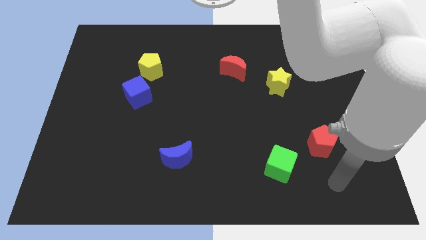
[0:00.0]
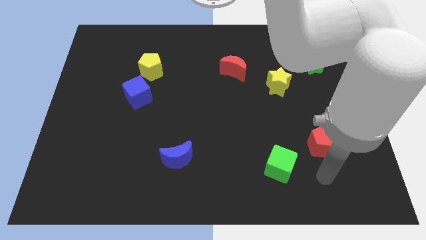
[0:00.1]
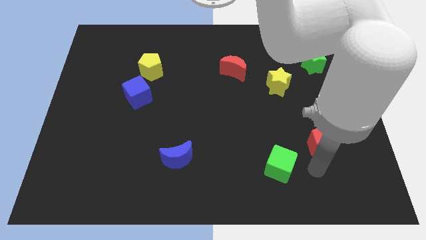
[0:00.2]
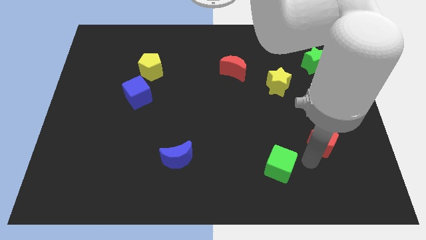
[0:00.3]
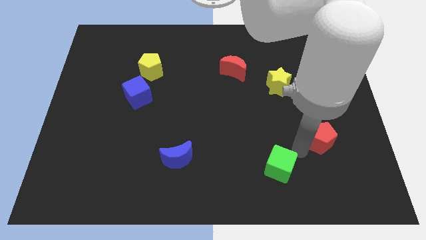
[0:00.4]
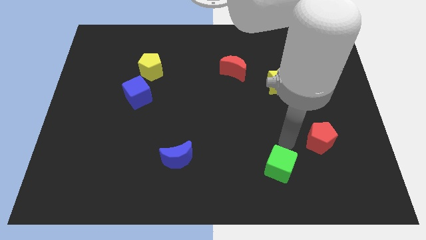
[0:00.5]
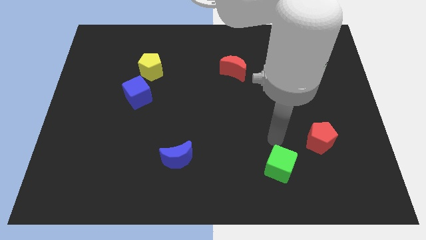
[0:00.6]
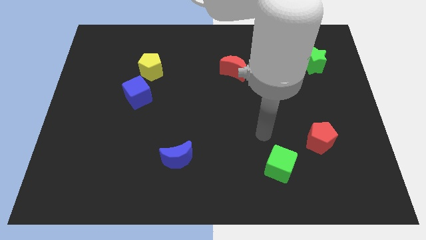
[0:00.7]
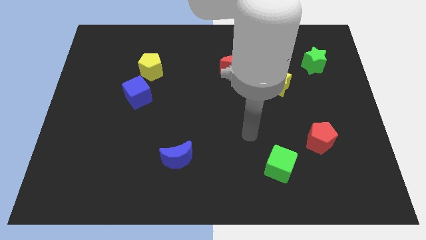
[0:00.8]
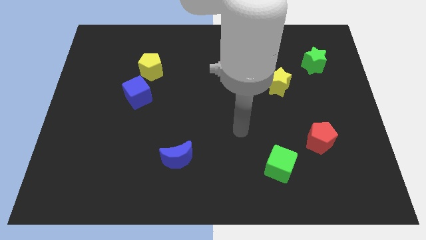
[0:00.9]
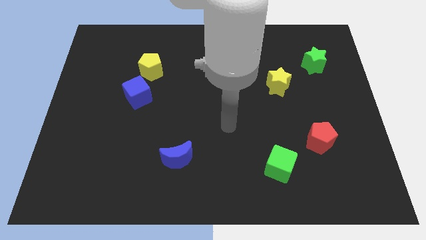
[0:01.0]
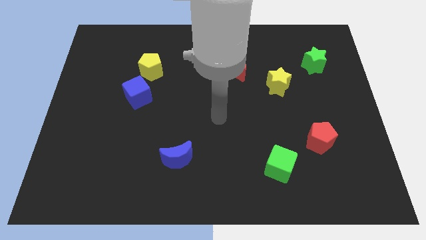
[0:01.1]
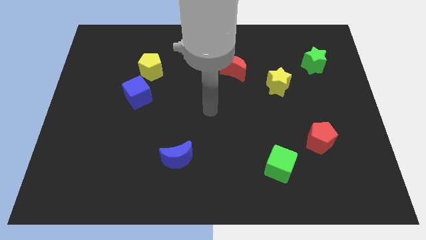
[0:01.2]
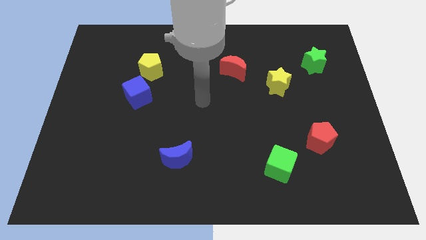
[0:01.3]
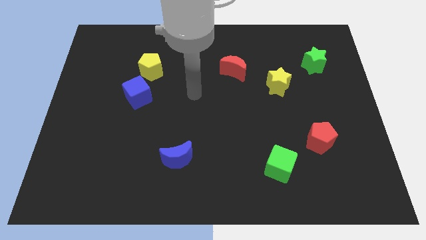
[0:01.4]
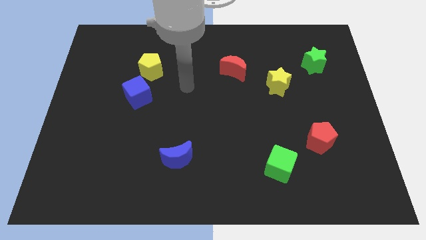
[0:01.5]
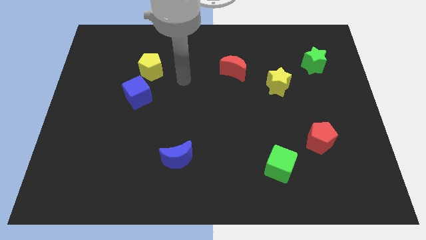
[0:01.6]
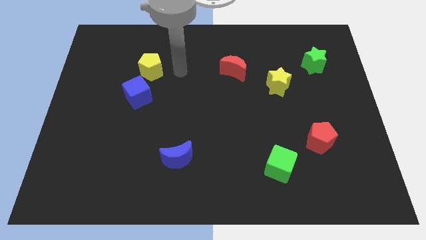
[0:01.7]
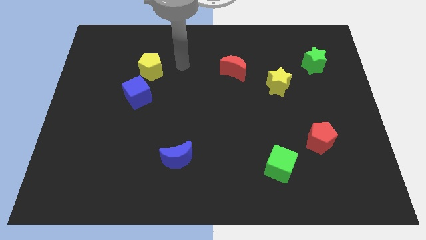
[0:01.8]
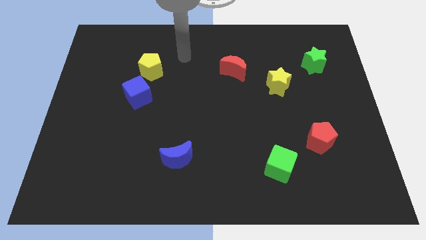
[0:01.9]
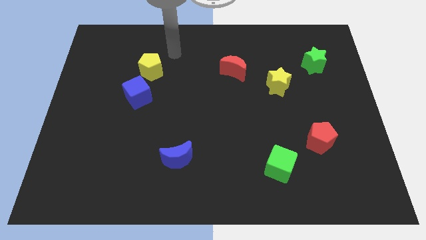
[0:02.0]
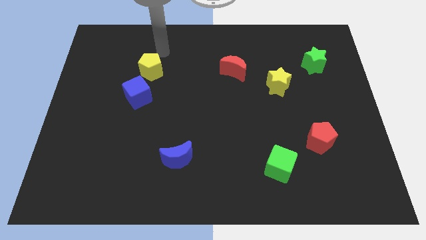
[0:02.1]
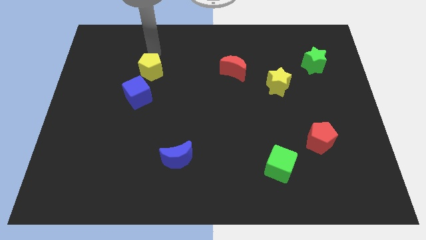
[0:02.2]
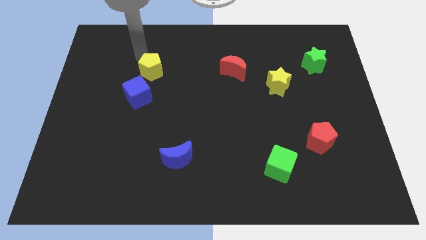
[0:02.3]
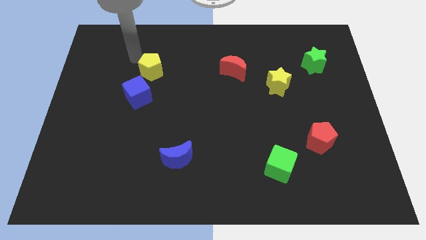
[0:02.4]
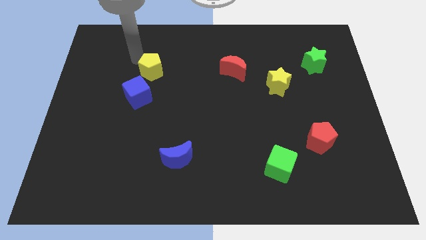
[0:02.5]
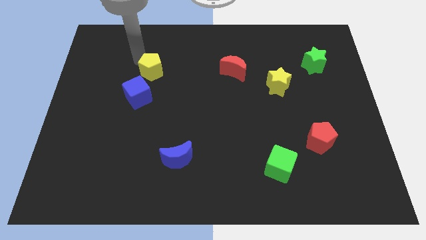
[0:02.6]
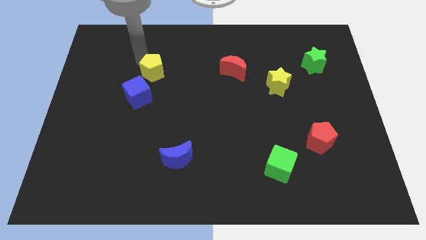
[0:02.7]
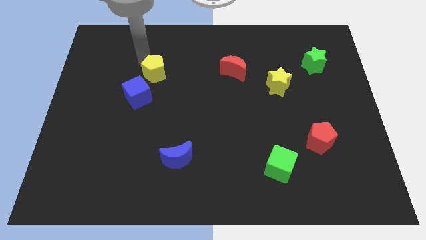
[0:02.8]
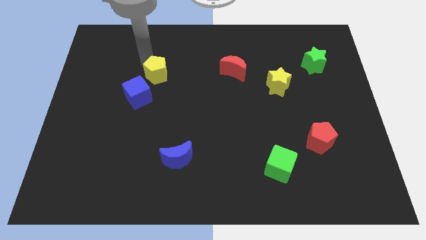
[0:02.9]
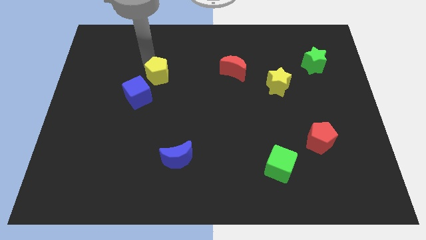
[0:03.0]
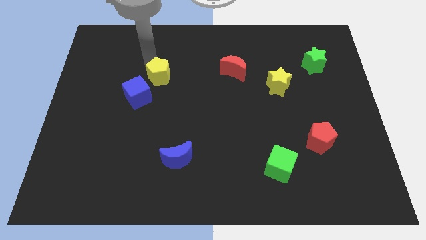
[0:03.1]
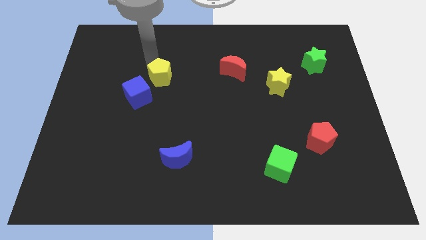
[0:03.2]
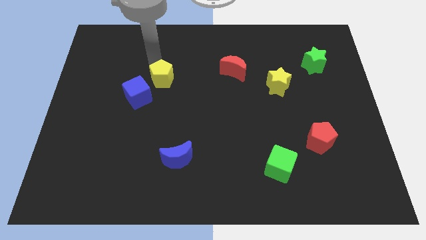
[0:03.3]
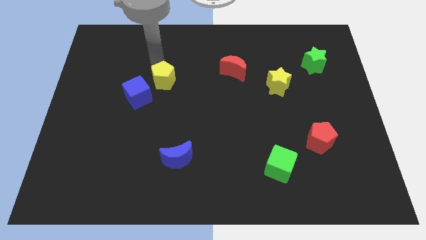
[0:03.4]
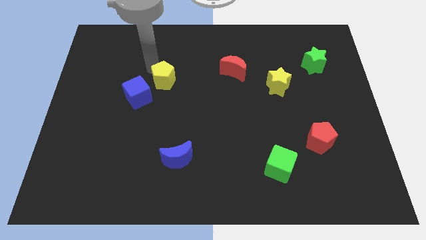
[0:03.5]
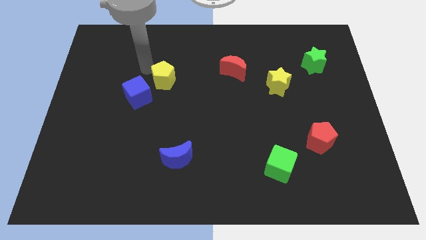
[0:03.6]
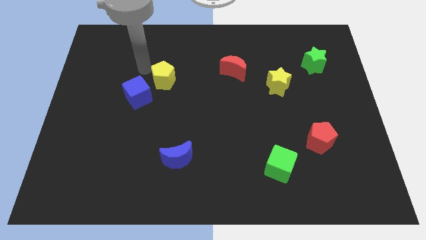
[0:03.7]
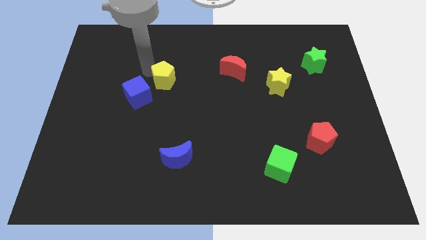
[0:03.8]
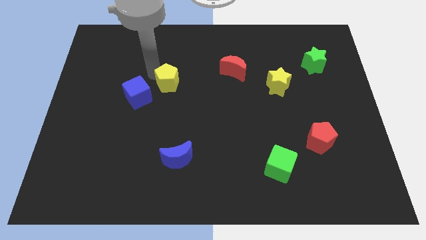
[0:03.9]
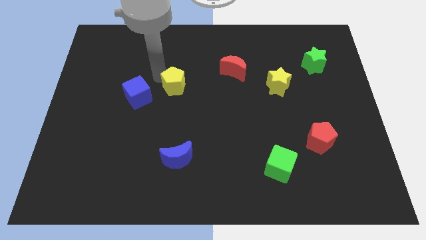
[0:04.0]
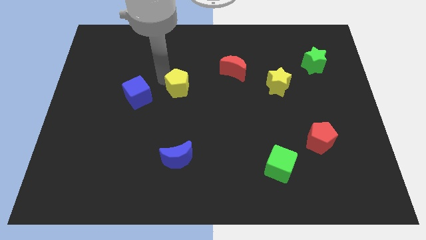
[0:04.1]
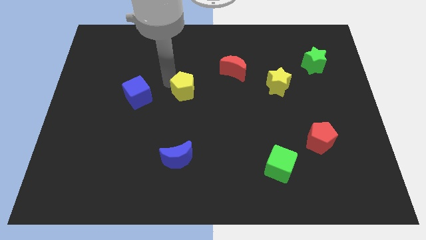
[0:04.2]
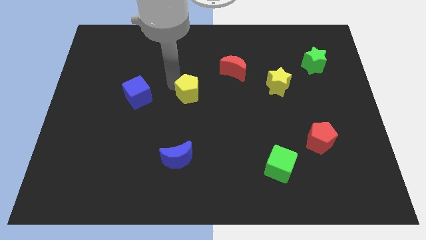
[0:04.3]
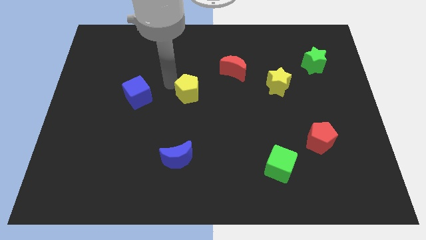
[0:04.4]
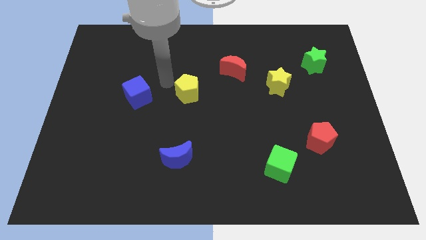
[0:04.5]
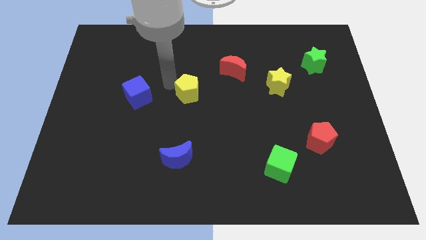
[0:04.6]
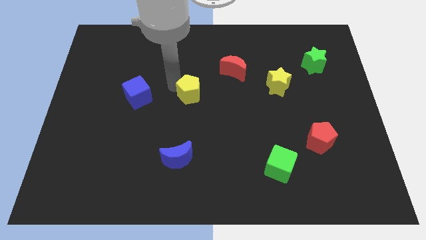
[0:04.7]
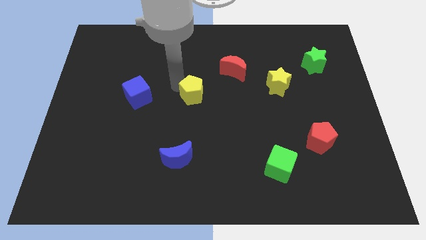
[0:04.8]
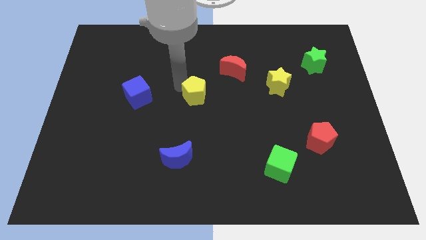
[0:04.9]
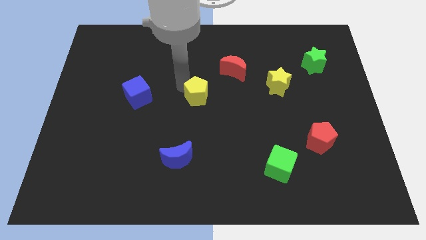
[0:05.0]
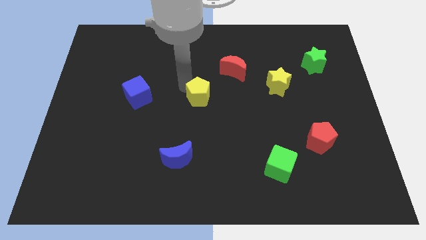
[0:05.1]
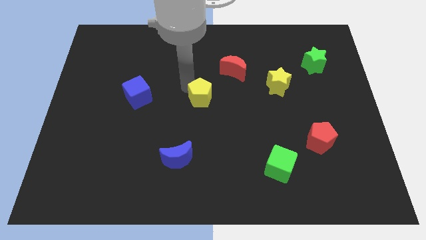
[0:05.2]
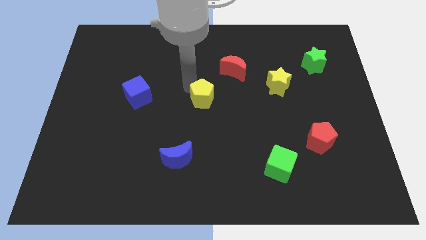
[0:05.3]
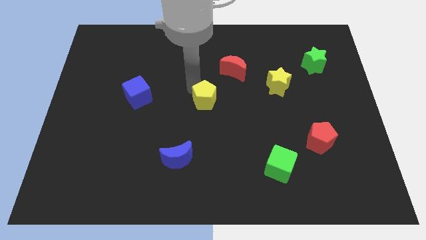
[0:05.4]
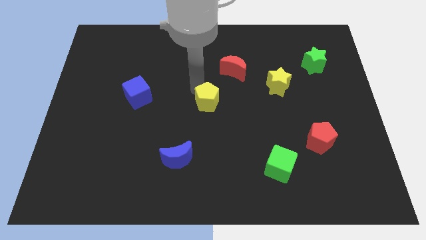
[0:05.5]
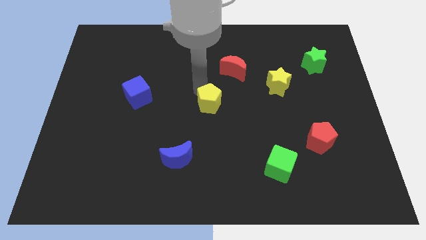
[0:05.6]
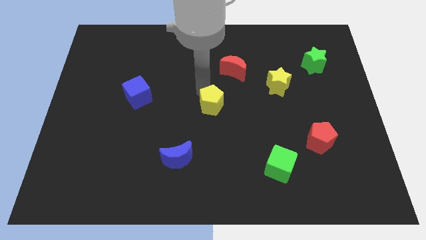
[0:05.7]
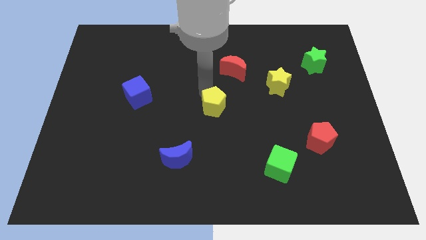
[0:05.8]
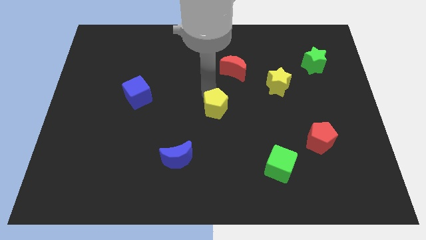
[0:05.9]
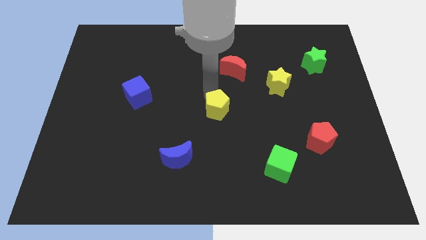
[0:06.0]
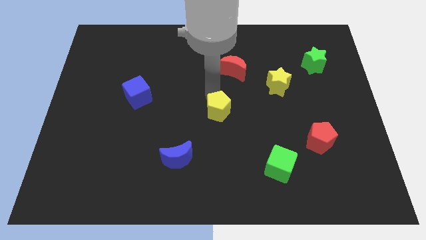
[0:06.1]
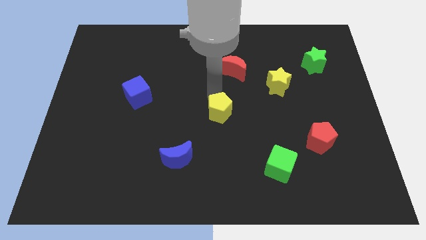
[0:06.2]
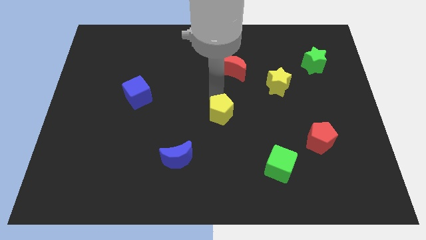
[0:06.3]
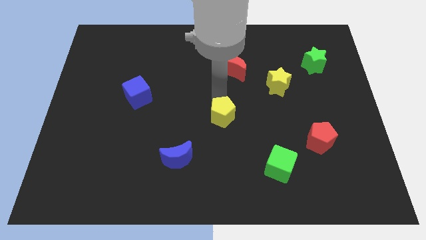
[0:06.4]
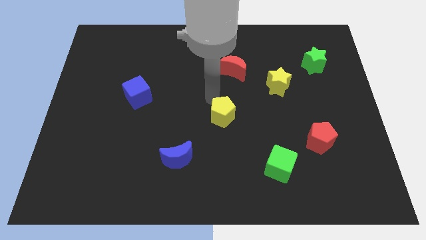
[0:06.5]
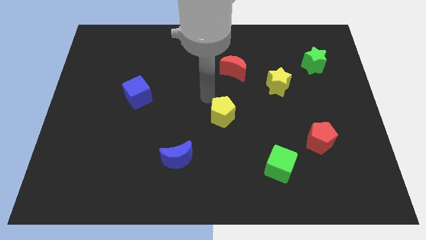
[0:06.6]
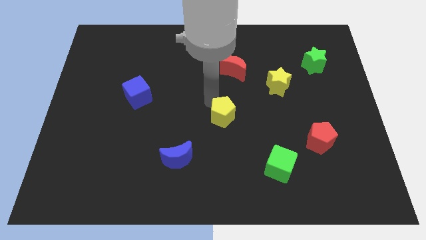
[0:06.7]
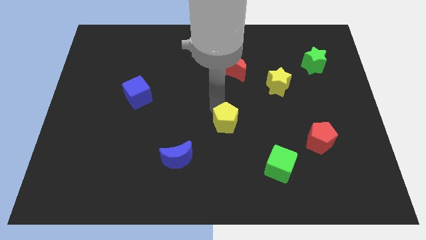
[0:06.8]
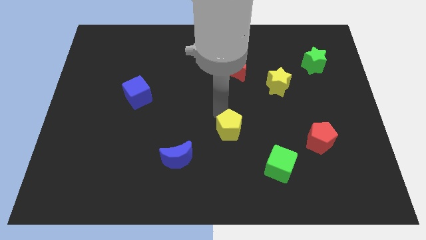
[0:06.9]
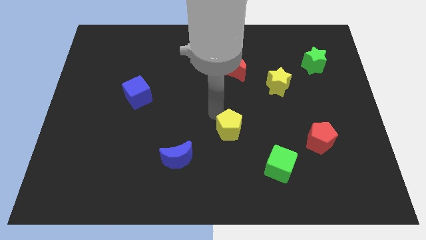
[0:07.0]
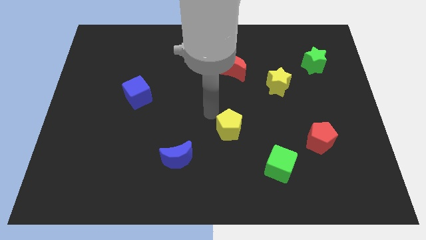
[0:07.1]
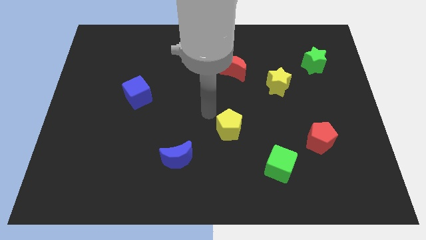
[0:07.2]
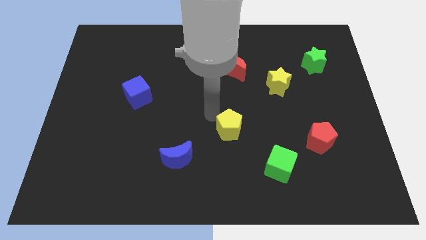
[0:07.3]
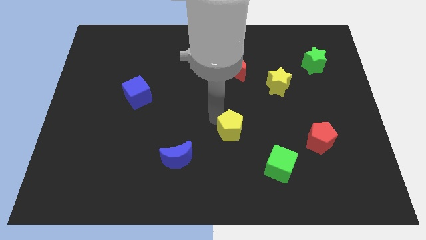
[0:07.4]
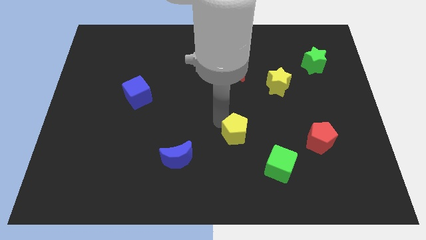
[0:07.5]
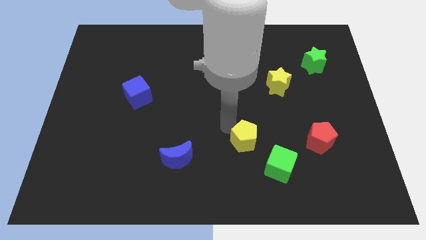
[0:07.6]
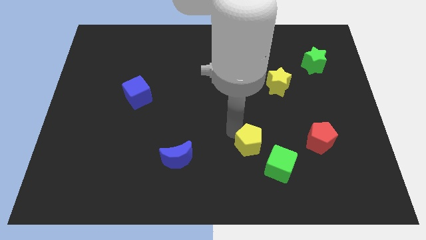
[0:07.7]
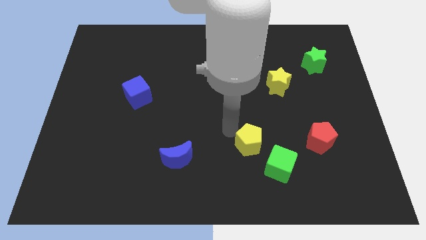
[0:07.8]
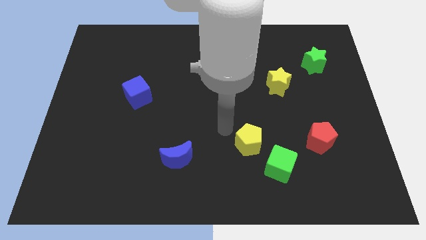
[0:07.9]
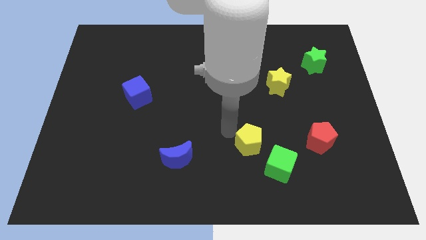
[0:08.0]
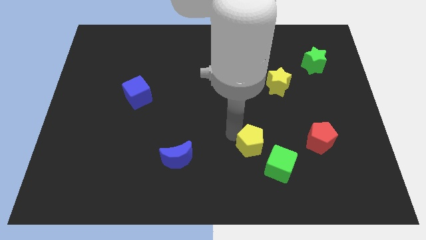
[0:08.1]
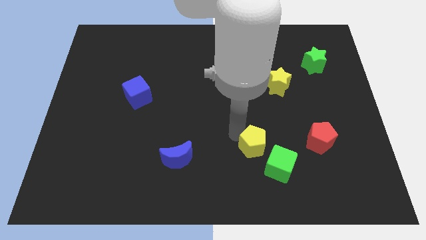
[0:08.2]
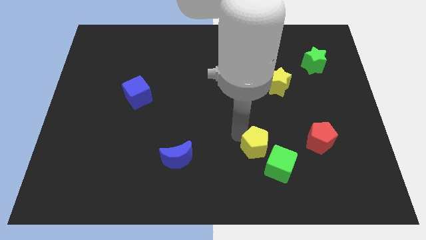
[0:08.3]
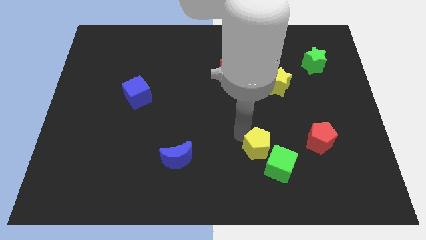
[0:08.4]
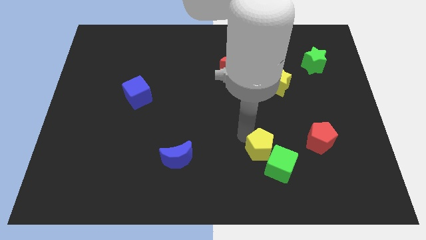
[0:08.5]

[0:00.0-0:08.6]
put the yellow pentagon close to the green cube
